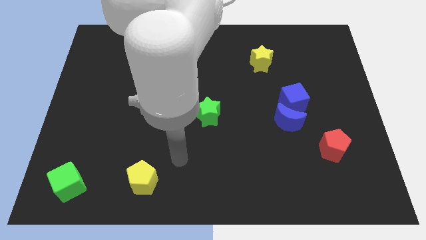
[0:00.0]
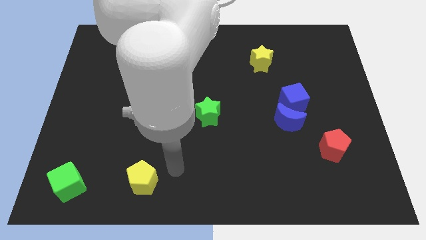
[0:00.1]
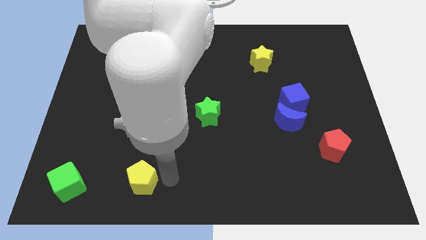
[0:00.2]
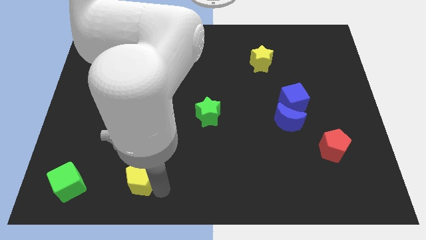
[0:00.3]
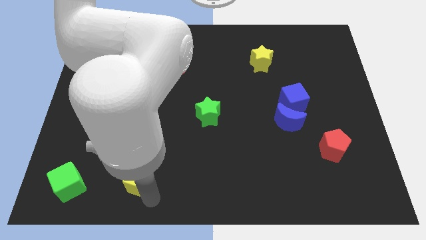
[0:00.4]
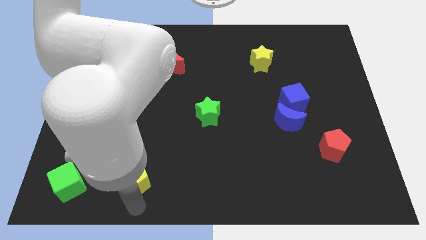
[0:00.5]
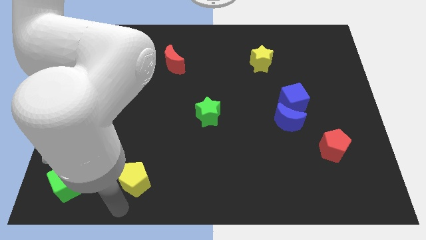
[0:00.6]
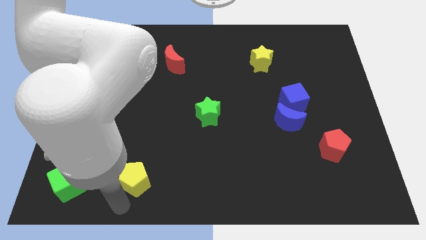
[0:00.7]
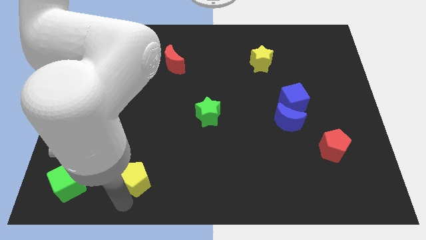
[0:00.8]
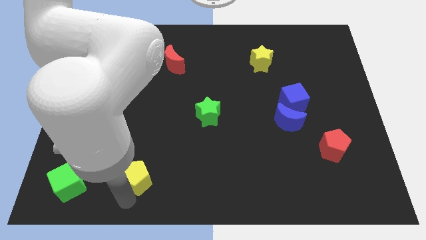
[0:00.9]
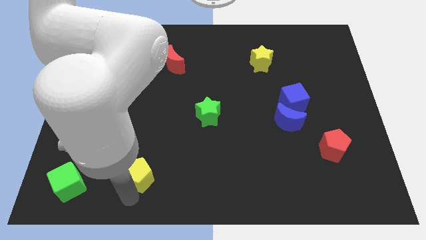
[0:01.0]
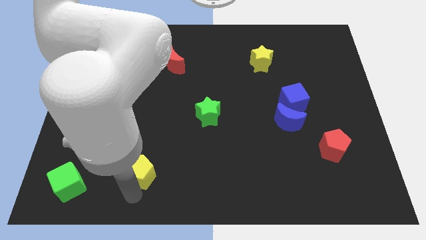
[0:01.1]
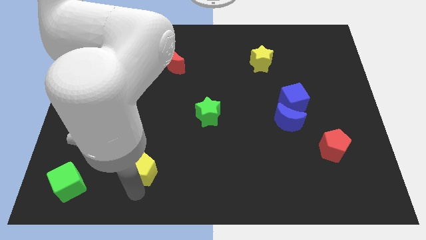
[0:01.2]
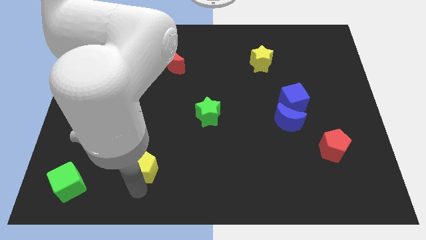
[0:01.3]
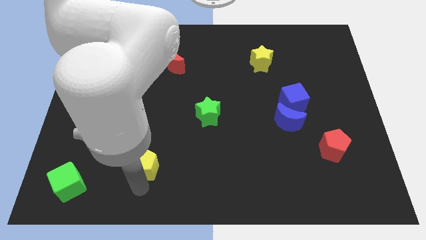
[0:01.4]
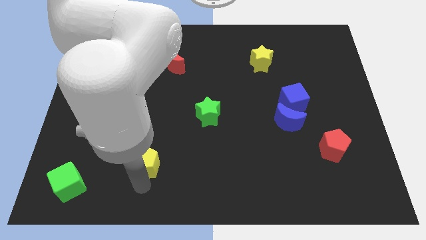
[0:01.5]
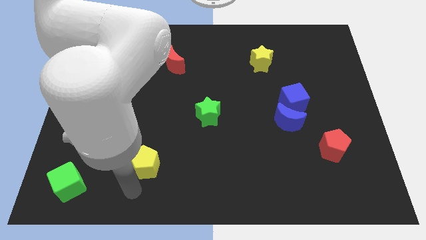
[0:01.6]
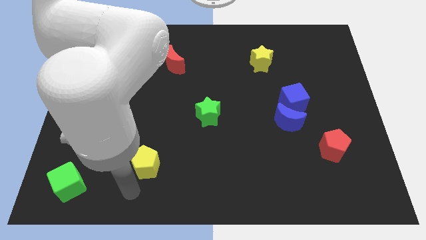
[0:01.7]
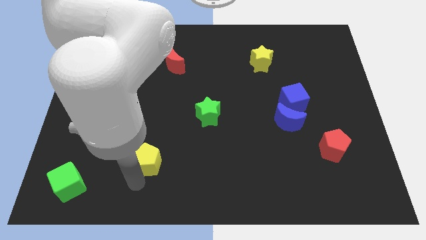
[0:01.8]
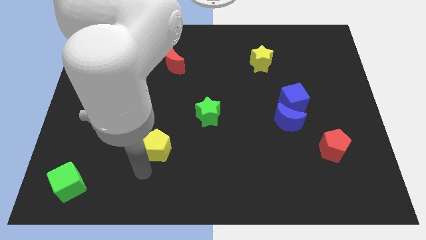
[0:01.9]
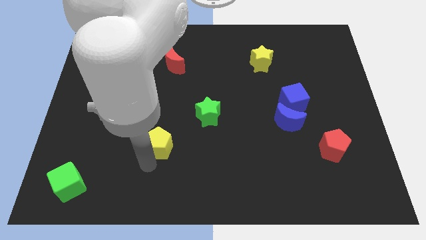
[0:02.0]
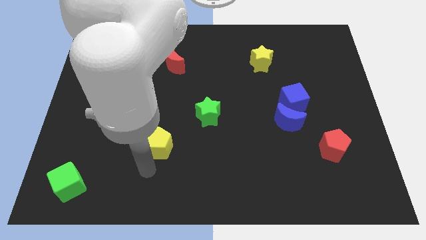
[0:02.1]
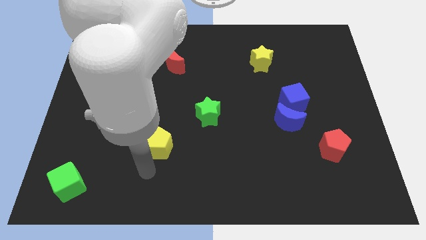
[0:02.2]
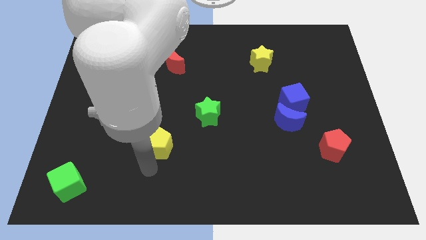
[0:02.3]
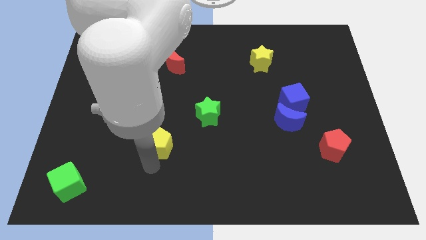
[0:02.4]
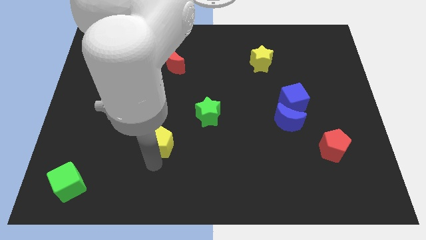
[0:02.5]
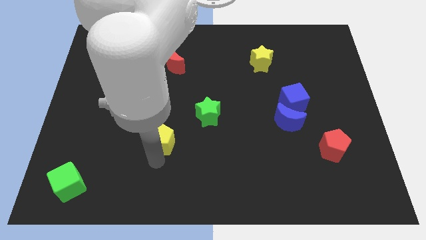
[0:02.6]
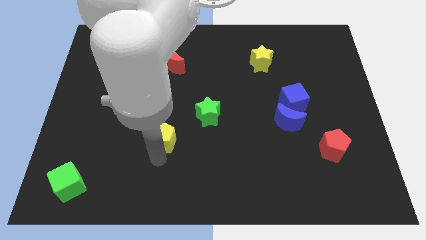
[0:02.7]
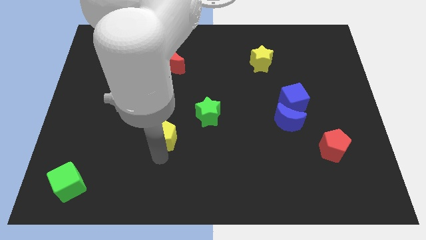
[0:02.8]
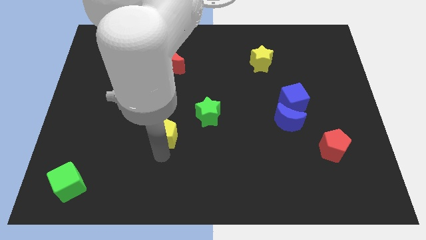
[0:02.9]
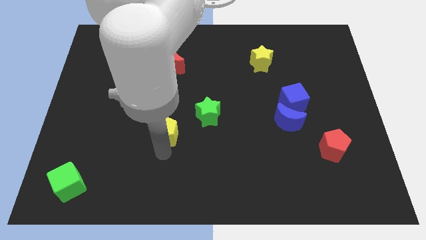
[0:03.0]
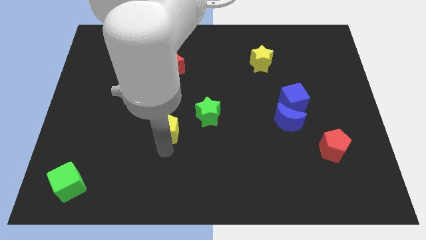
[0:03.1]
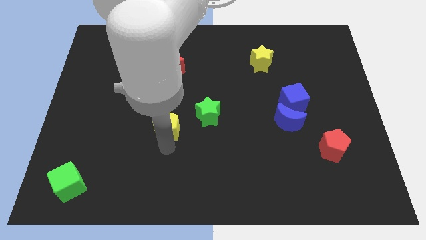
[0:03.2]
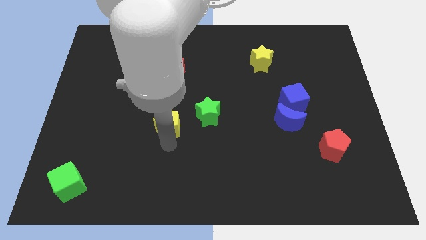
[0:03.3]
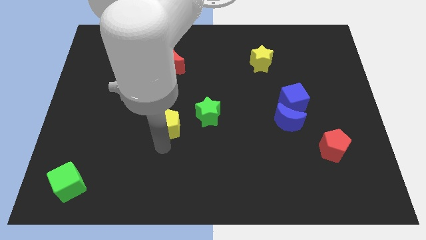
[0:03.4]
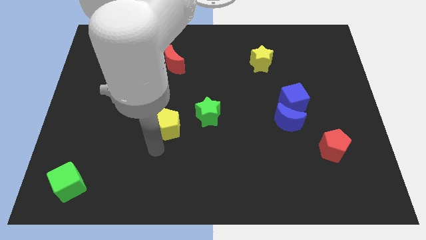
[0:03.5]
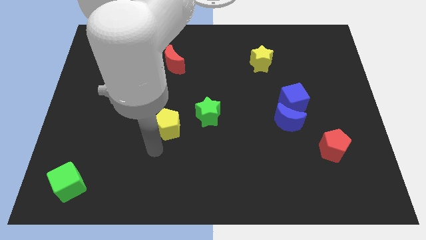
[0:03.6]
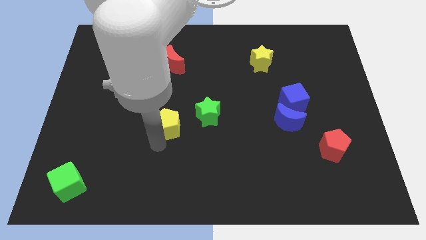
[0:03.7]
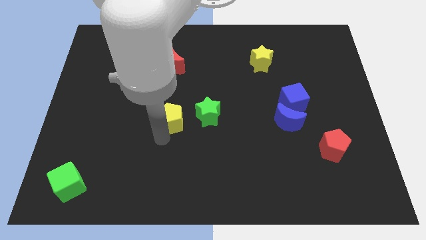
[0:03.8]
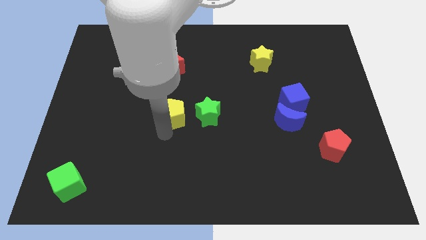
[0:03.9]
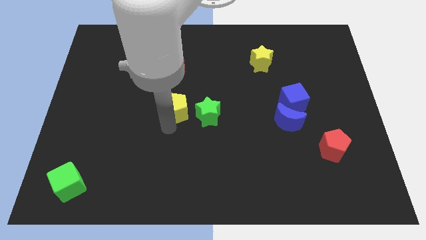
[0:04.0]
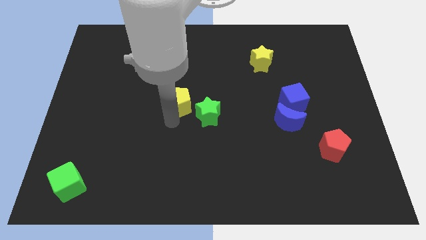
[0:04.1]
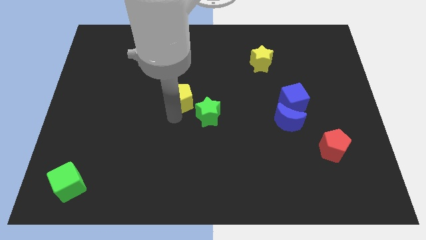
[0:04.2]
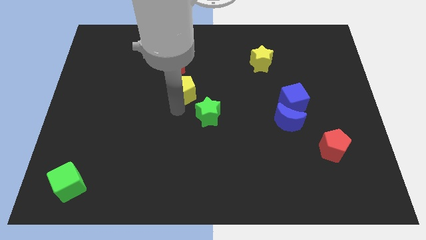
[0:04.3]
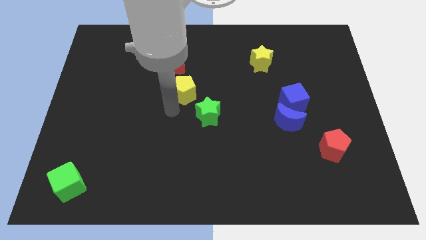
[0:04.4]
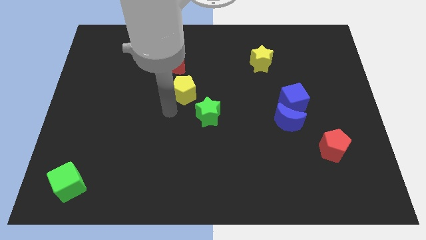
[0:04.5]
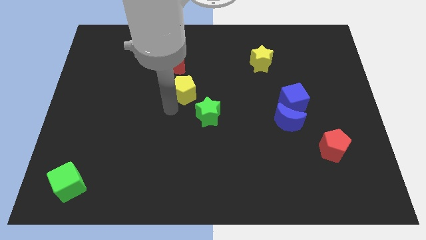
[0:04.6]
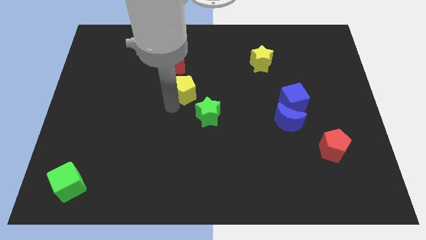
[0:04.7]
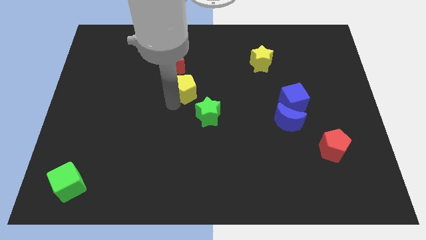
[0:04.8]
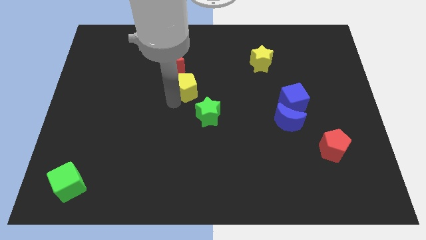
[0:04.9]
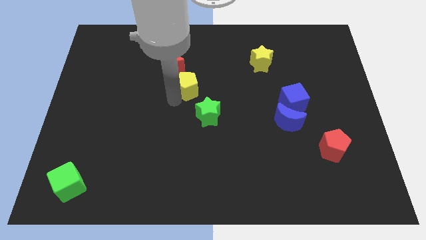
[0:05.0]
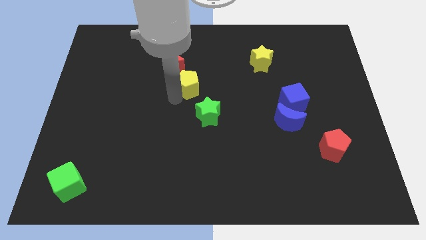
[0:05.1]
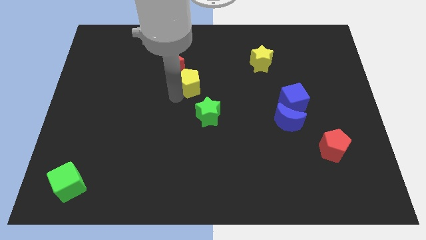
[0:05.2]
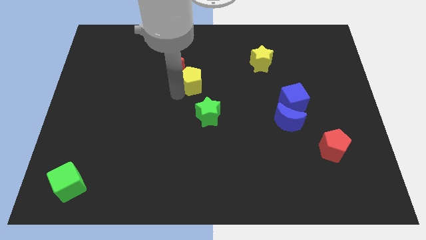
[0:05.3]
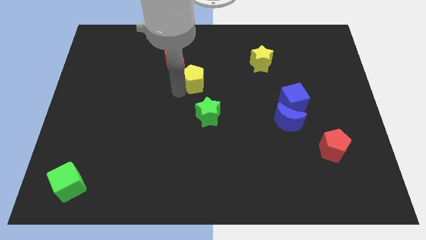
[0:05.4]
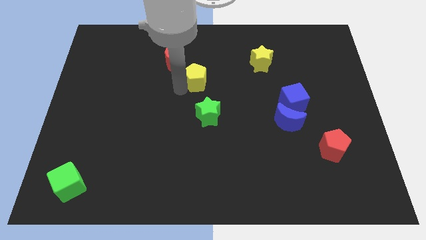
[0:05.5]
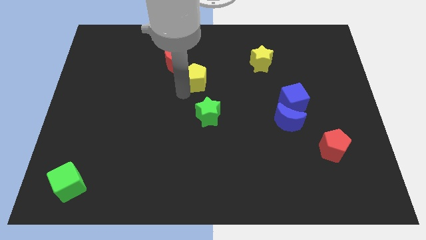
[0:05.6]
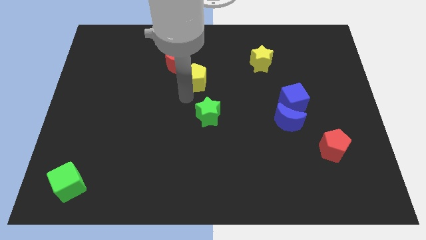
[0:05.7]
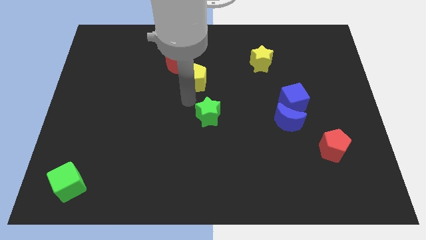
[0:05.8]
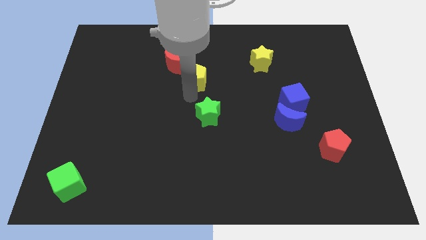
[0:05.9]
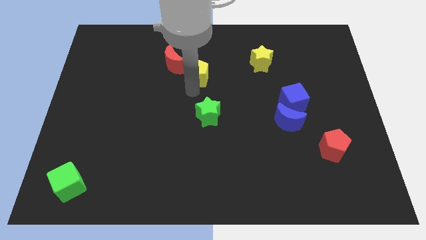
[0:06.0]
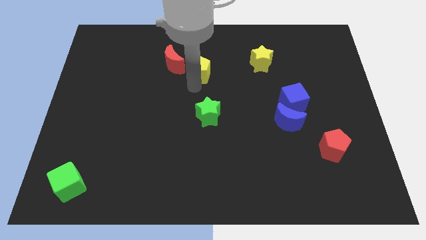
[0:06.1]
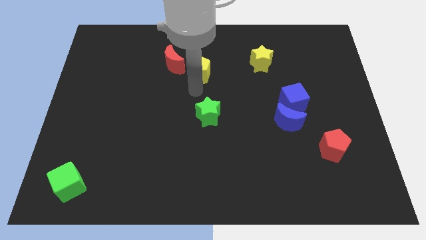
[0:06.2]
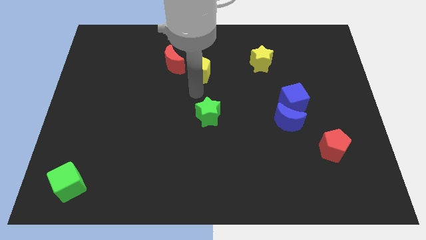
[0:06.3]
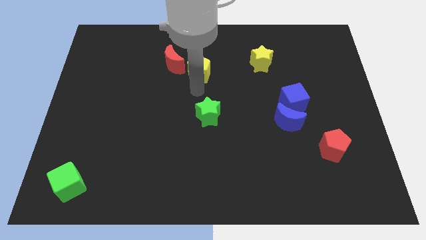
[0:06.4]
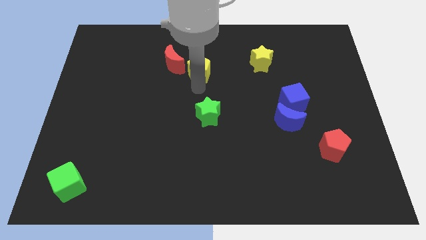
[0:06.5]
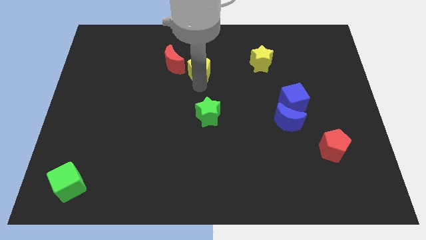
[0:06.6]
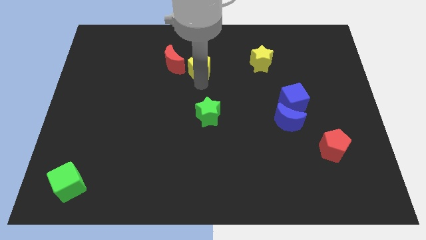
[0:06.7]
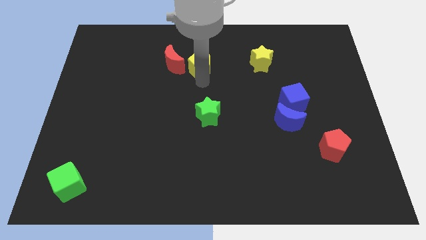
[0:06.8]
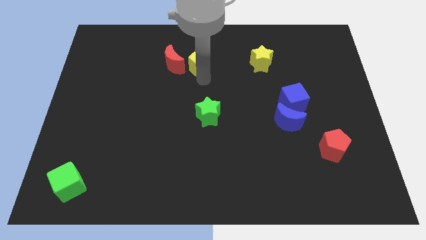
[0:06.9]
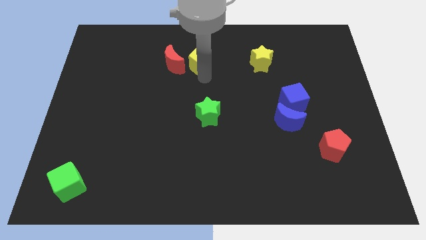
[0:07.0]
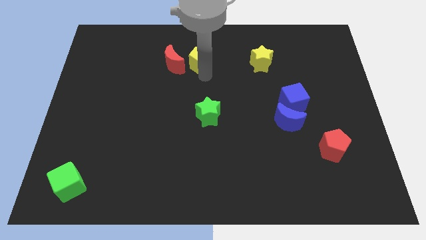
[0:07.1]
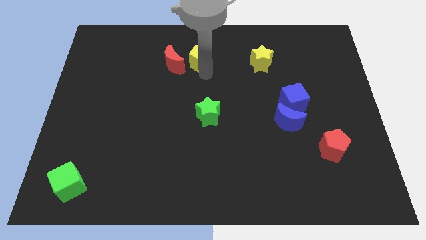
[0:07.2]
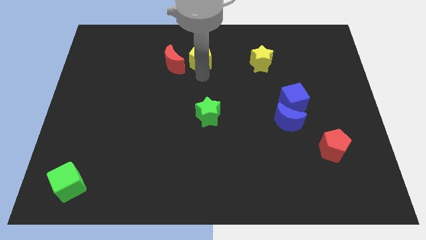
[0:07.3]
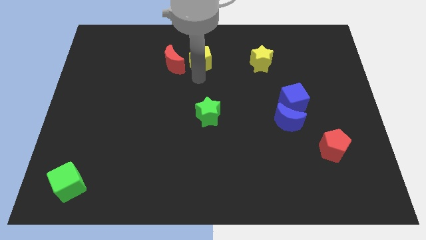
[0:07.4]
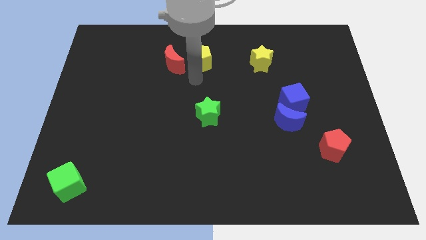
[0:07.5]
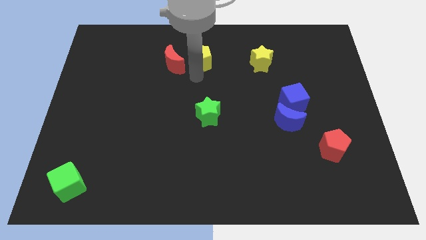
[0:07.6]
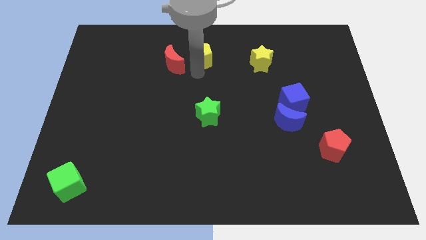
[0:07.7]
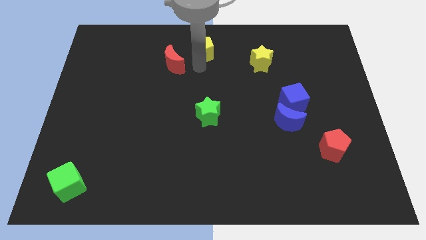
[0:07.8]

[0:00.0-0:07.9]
push the yellow pentagon to the top
